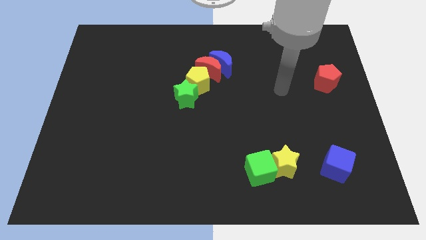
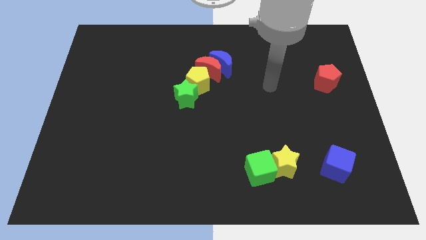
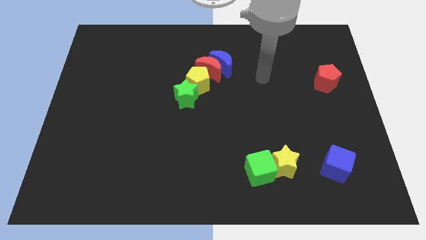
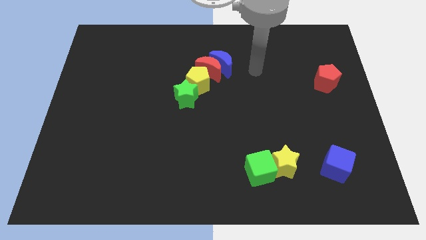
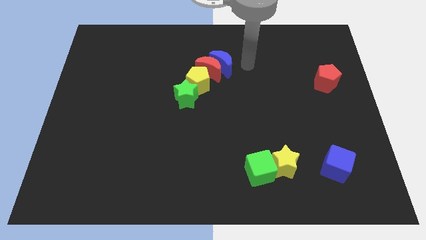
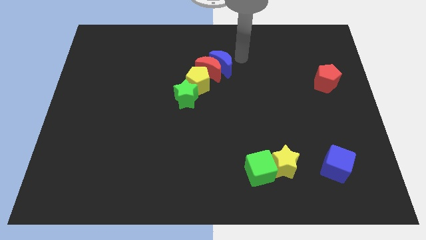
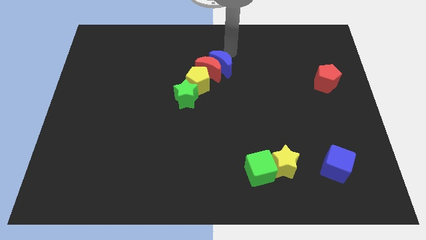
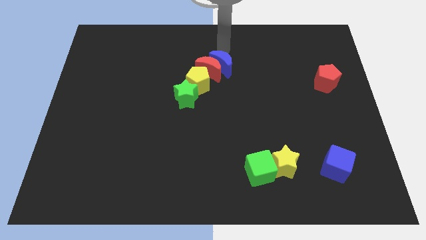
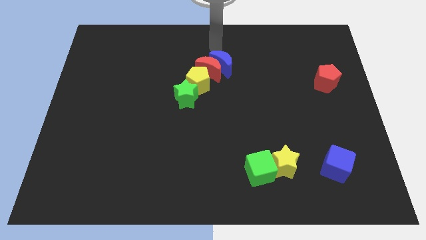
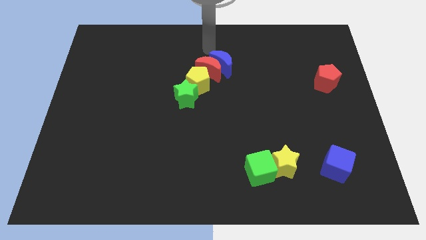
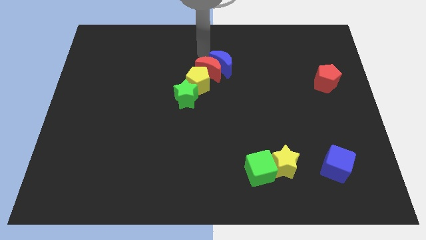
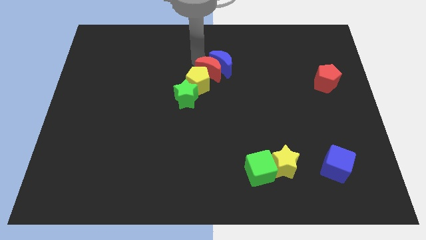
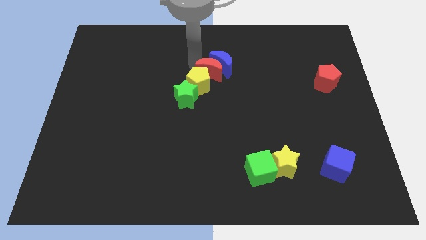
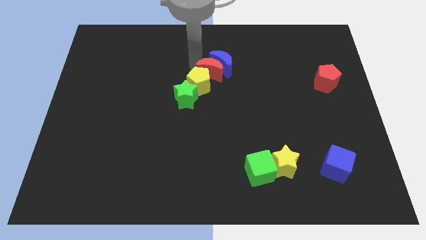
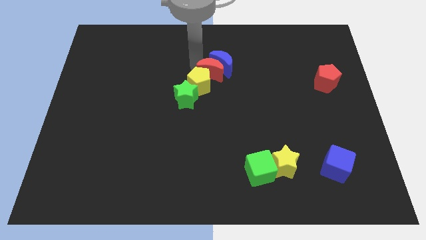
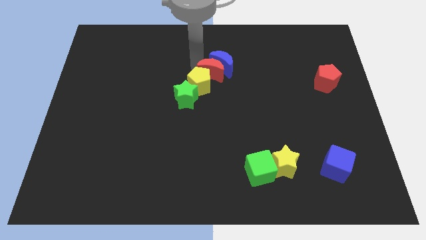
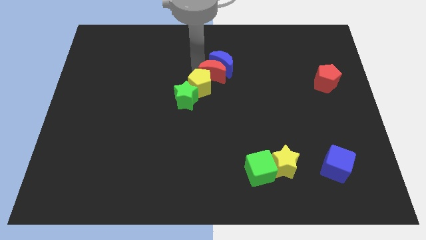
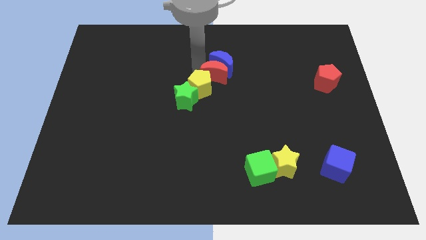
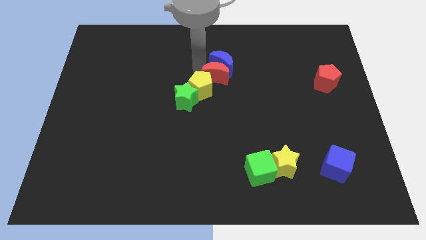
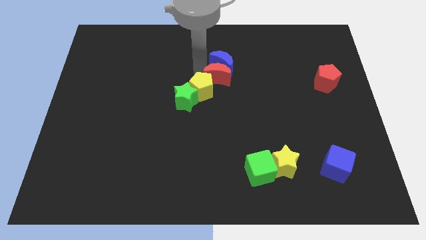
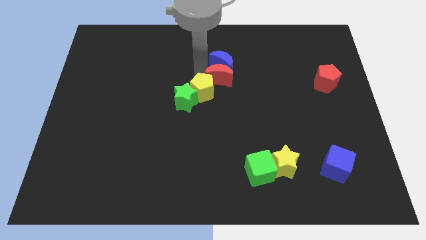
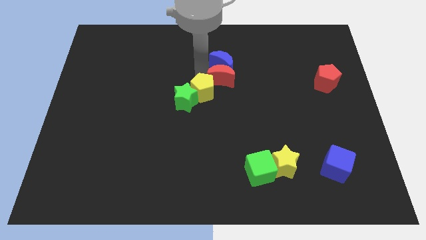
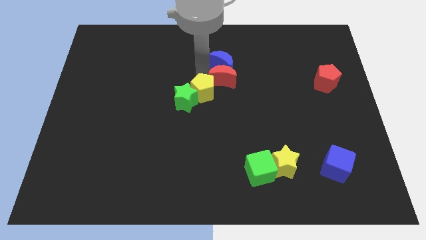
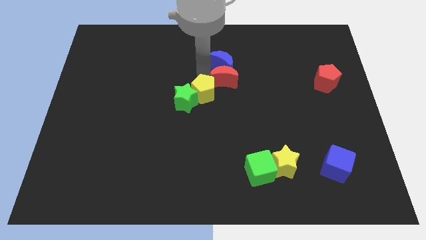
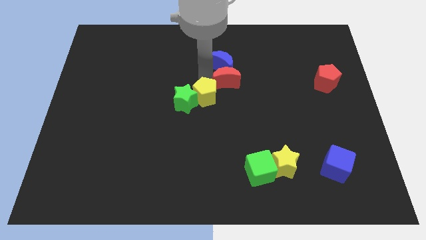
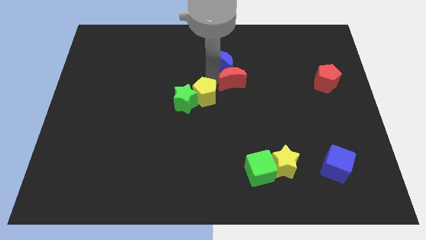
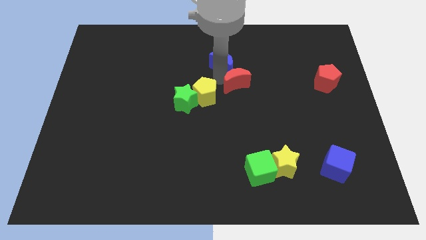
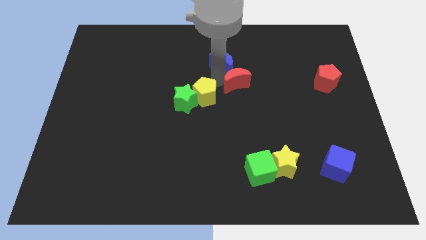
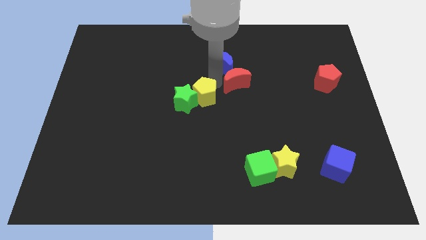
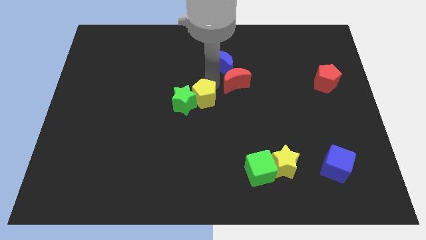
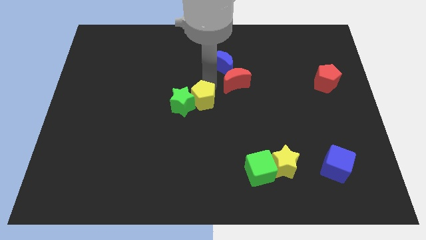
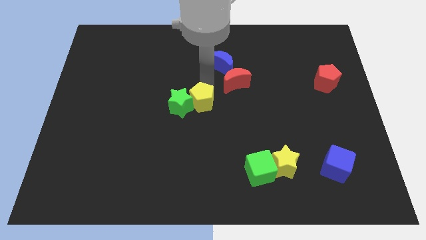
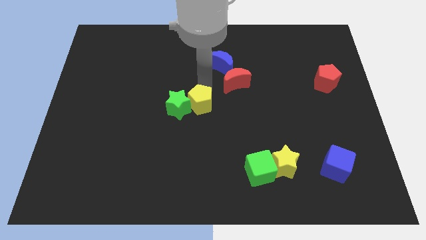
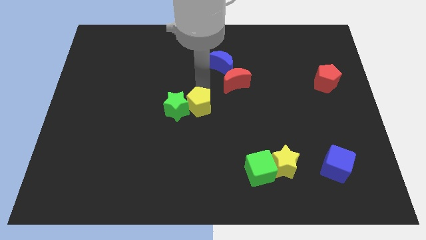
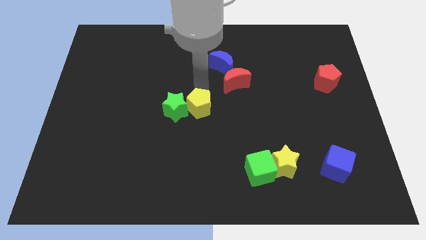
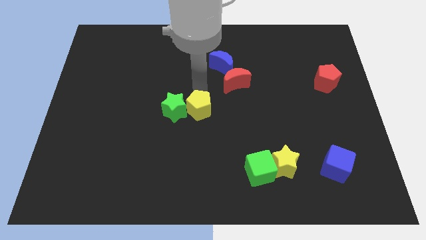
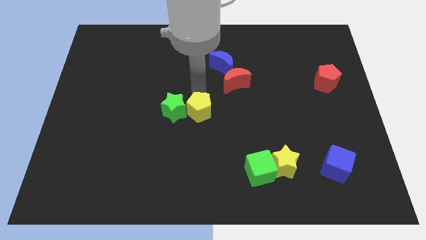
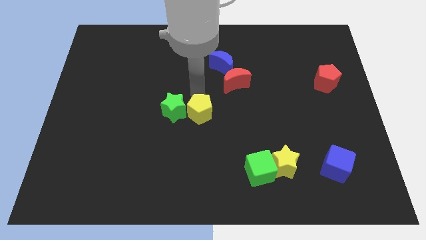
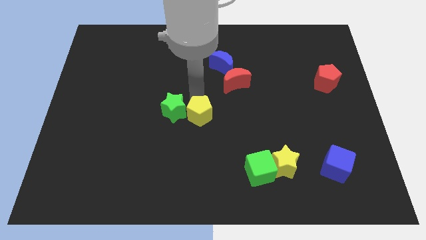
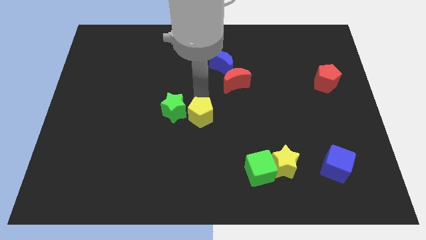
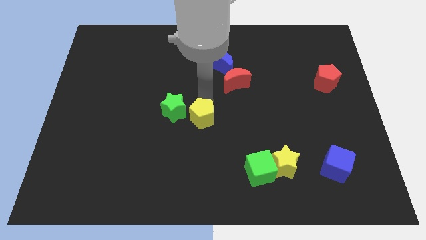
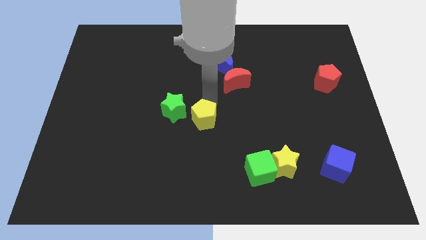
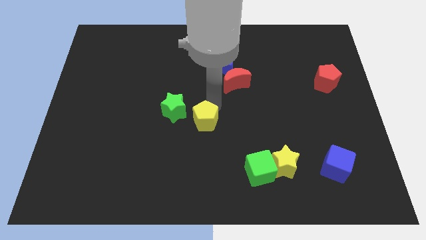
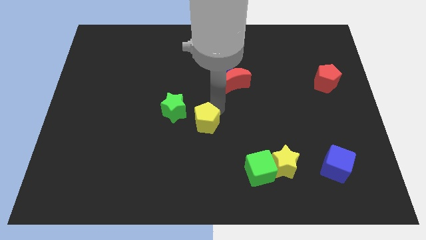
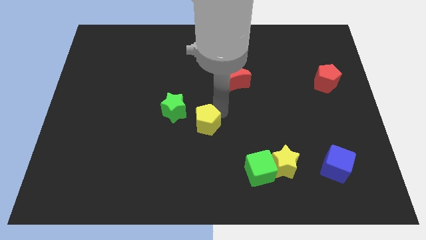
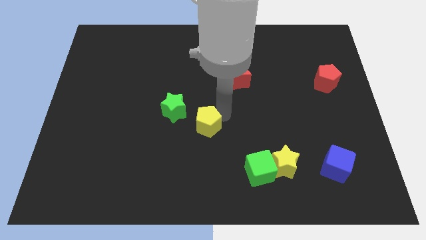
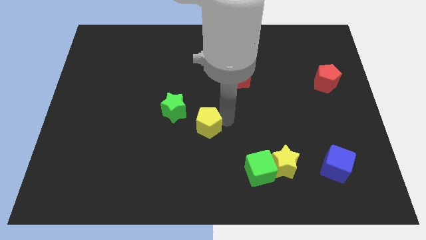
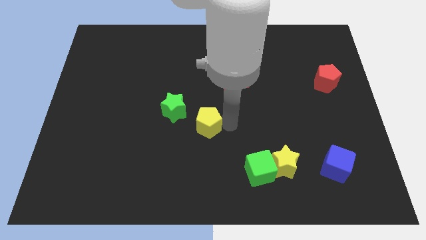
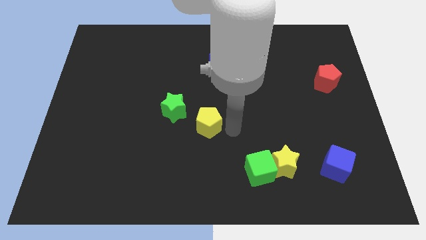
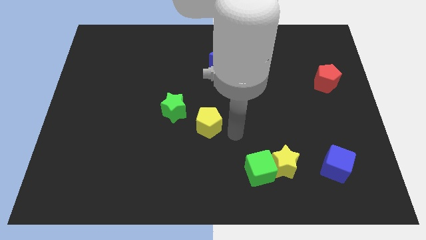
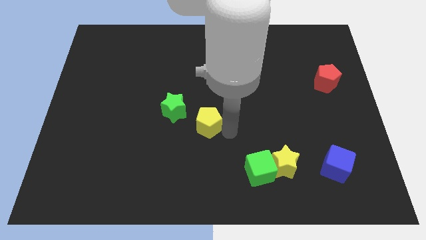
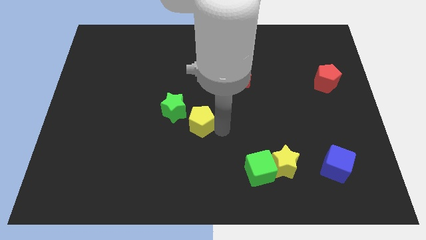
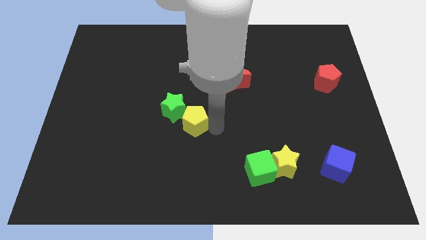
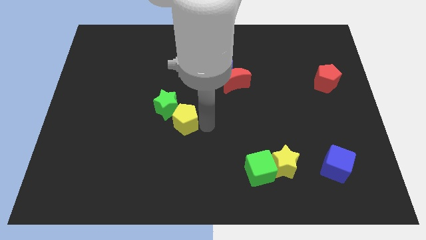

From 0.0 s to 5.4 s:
slightly move the yellow pentagon down and left

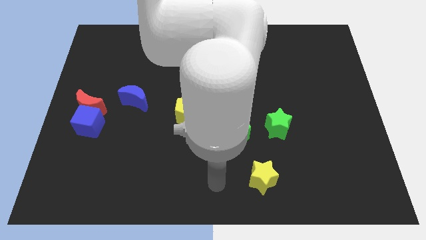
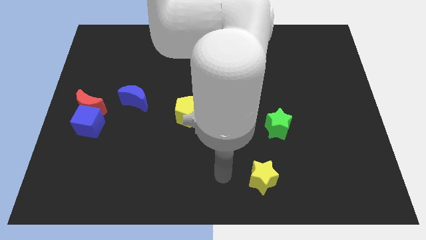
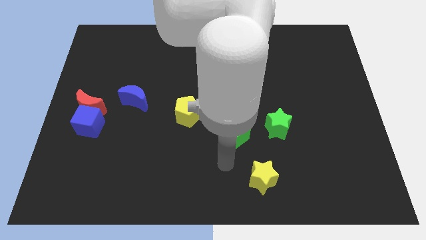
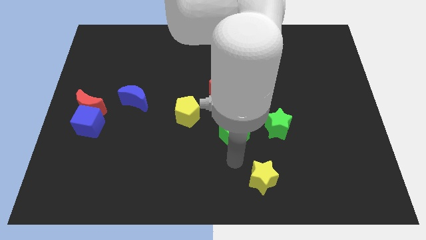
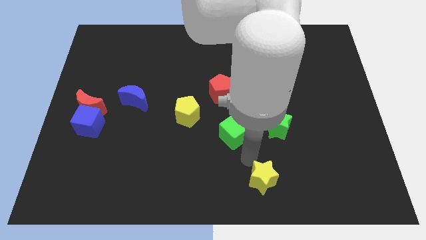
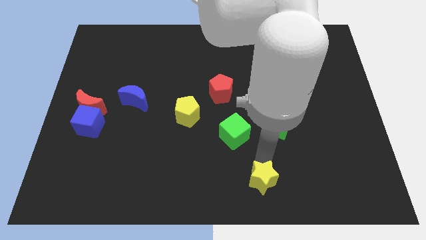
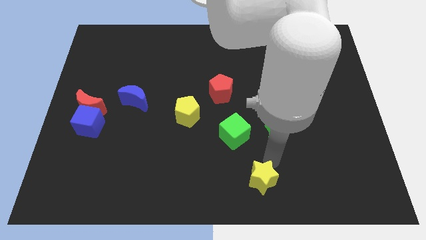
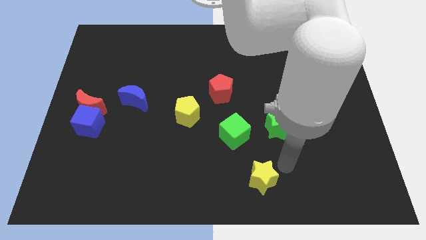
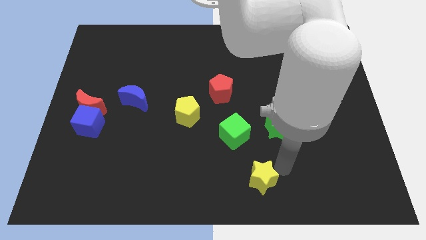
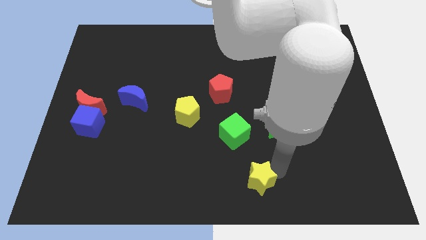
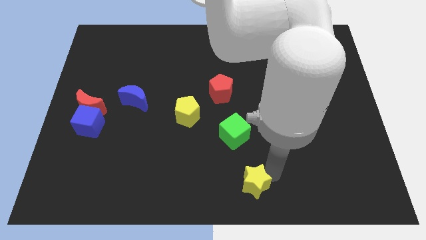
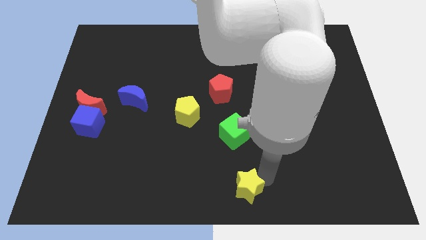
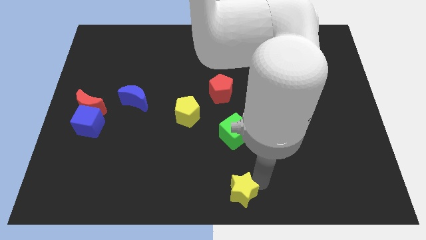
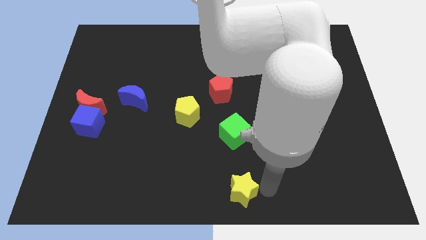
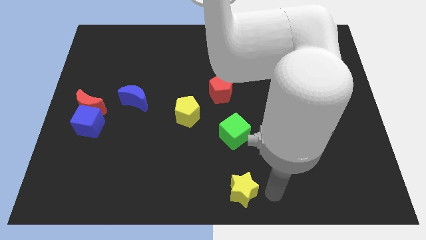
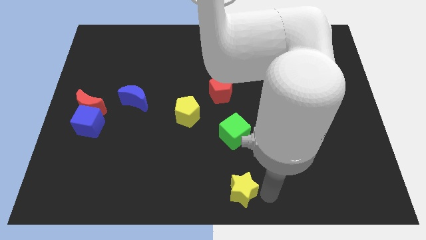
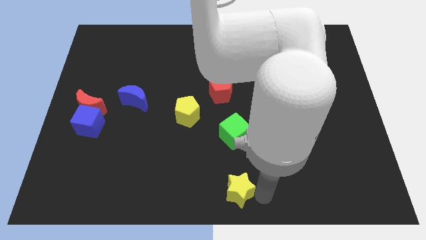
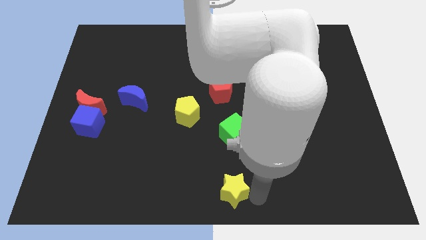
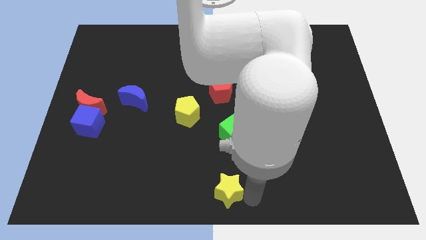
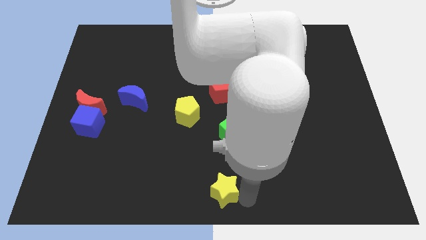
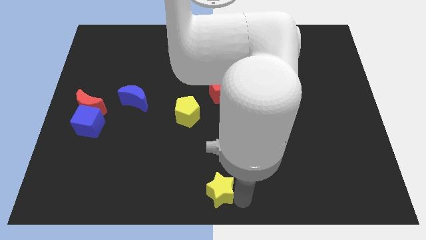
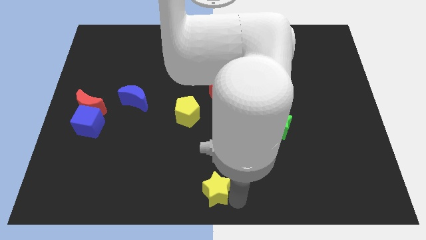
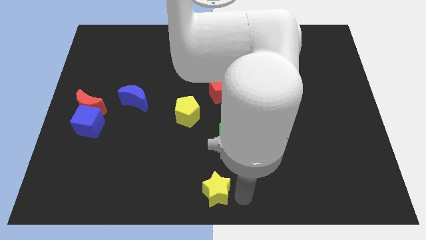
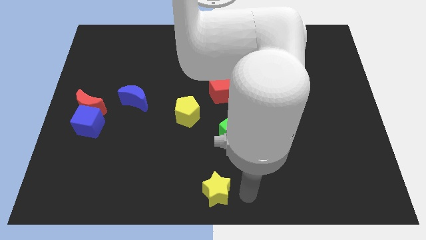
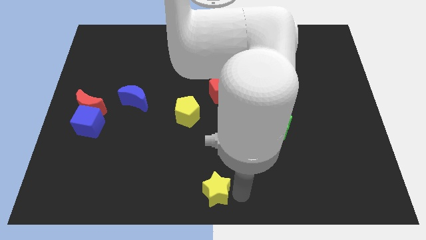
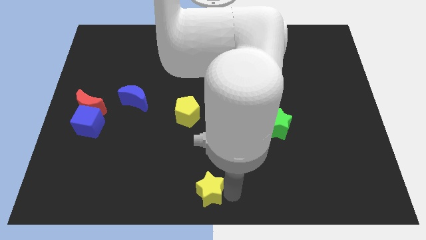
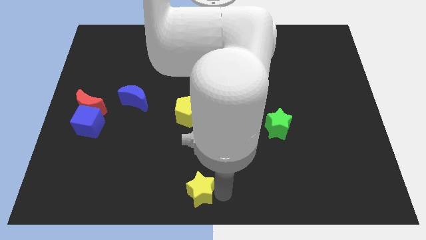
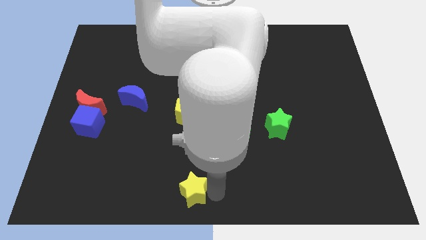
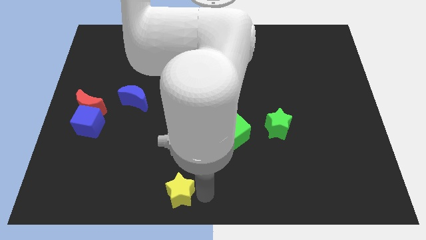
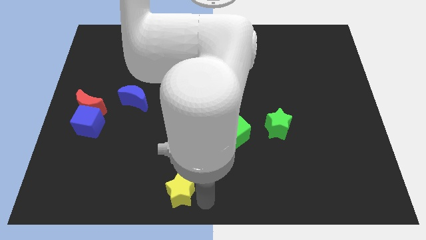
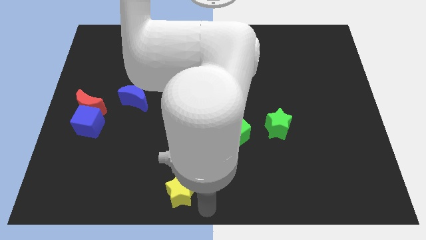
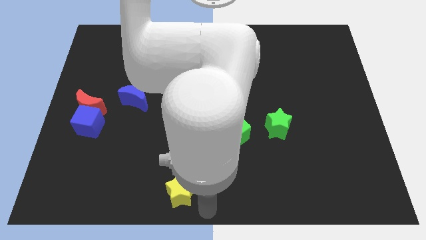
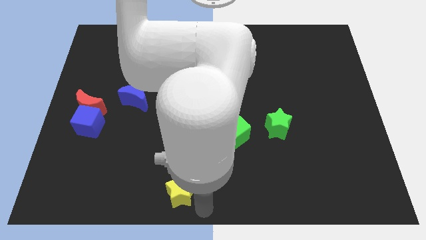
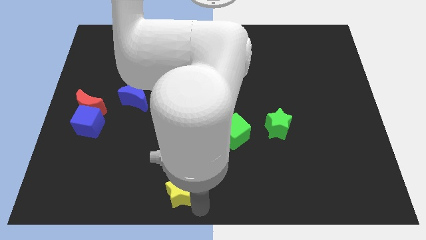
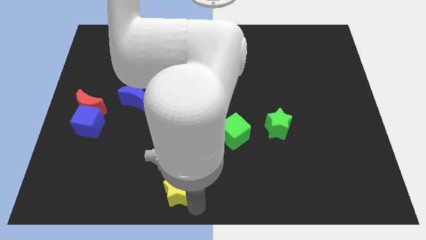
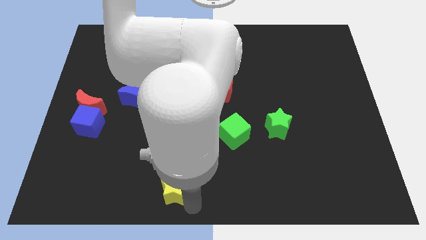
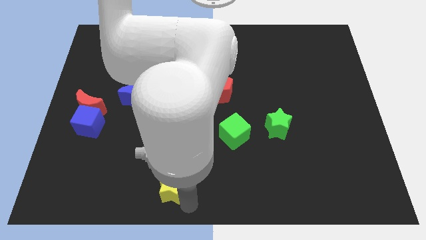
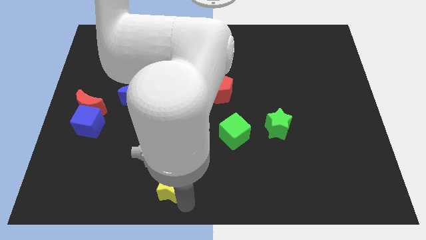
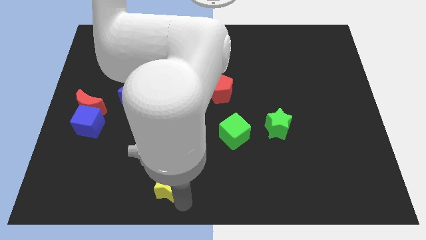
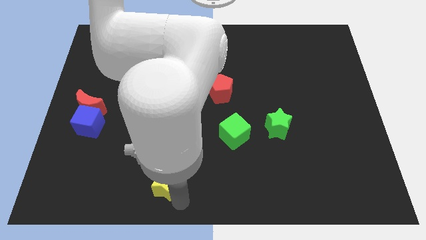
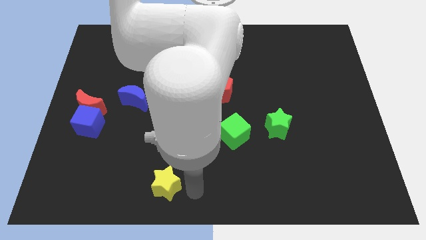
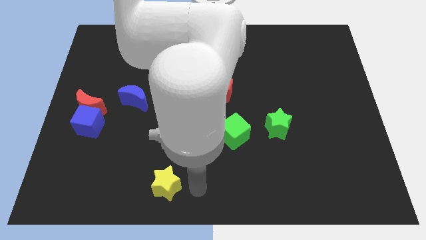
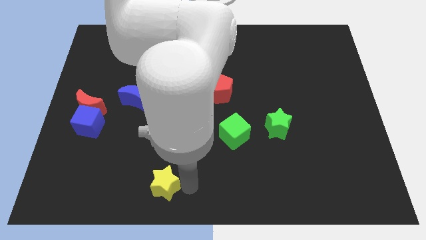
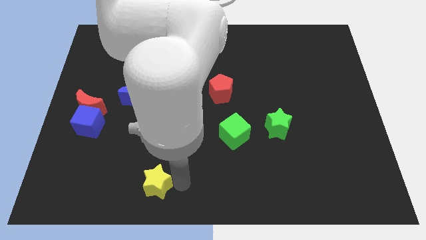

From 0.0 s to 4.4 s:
move the yellow star to the left
